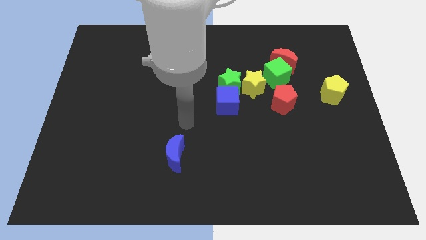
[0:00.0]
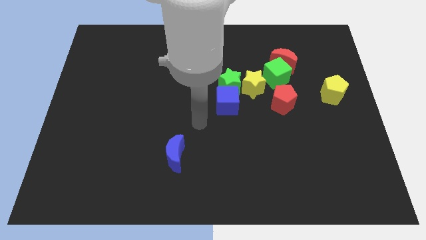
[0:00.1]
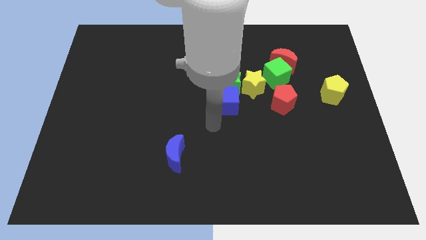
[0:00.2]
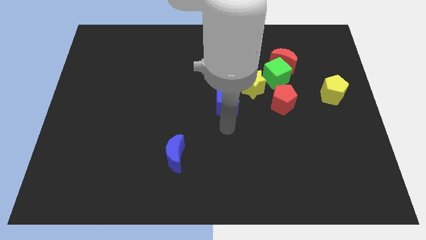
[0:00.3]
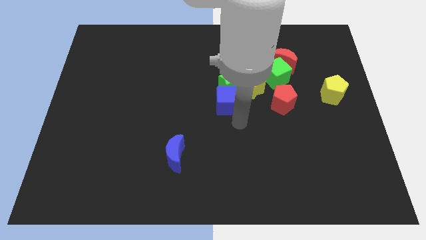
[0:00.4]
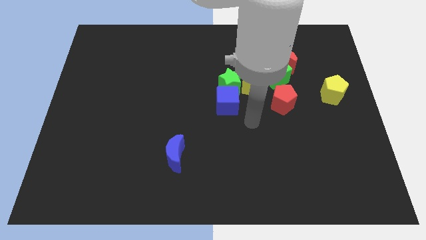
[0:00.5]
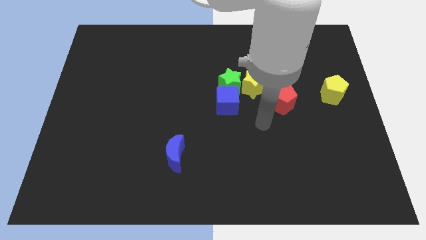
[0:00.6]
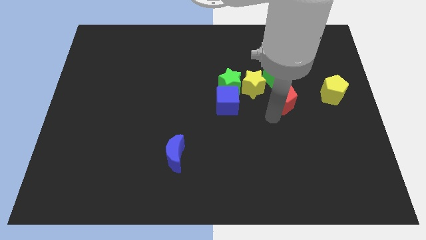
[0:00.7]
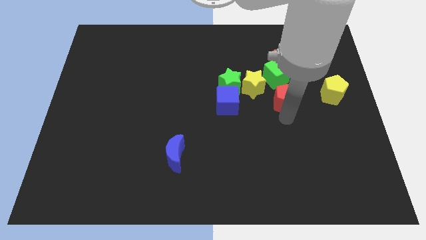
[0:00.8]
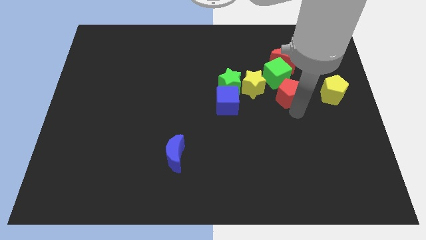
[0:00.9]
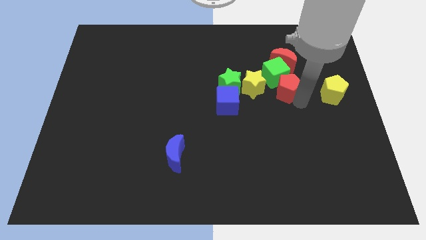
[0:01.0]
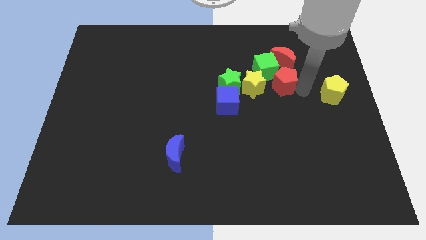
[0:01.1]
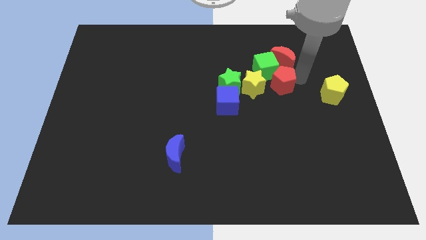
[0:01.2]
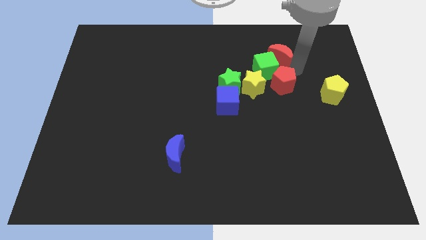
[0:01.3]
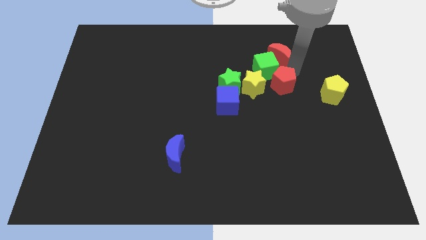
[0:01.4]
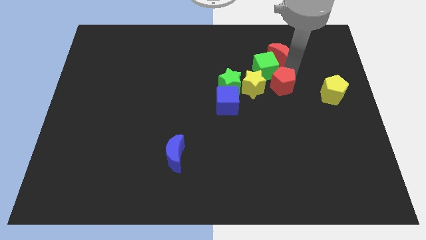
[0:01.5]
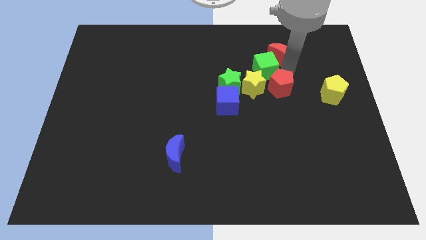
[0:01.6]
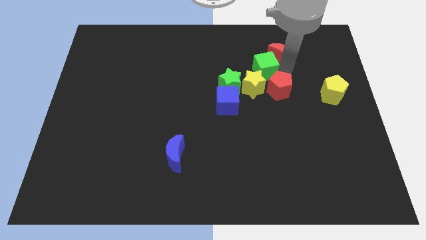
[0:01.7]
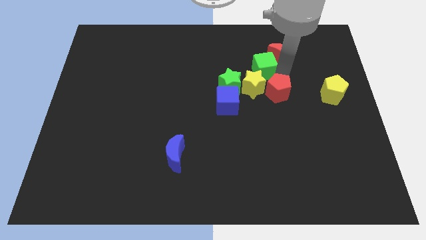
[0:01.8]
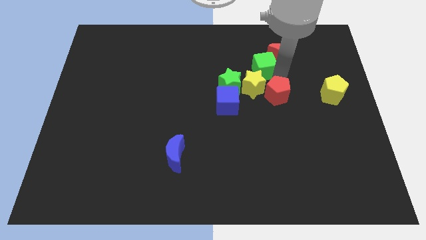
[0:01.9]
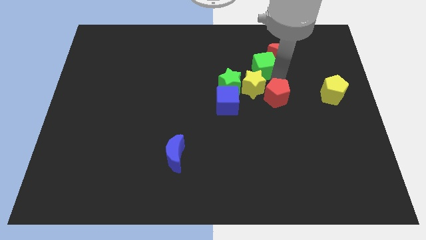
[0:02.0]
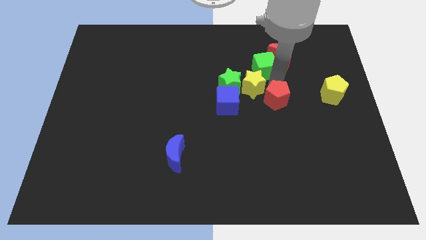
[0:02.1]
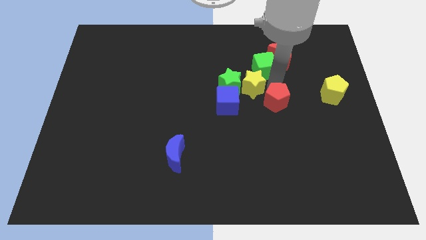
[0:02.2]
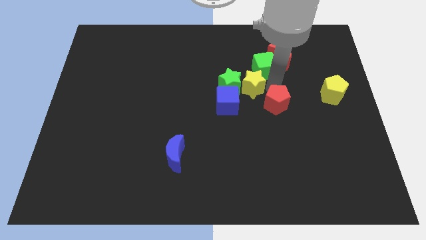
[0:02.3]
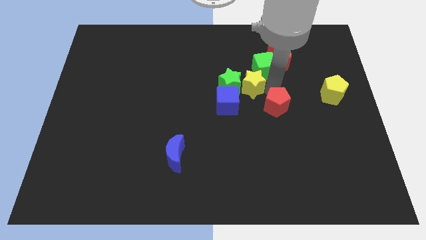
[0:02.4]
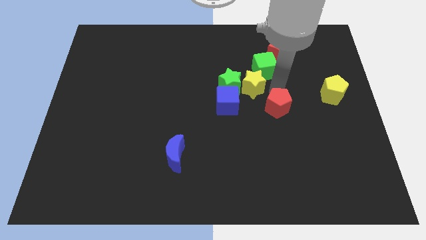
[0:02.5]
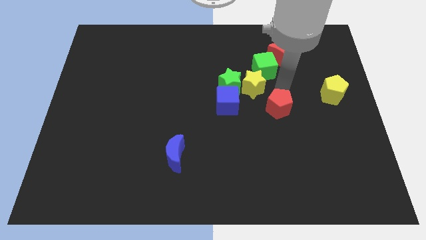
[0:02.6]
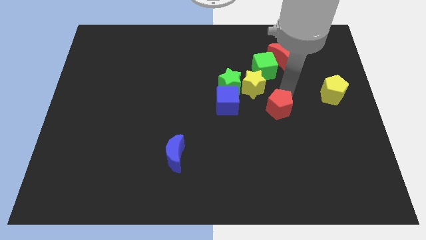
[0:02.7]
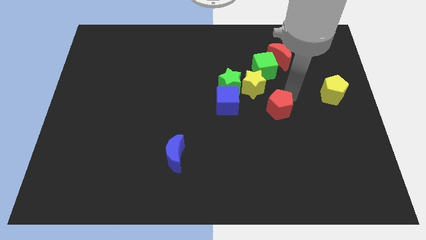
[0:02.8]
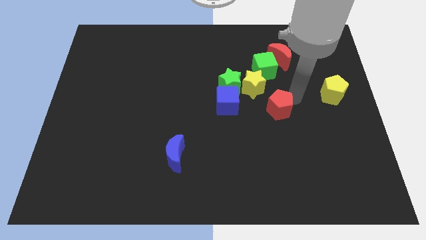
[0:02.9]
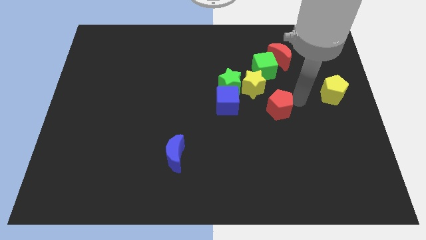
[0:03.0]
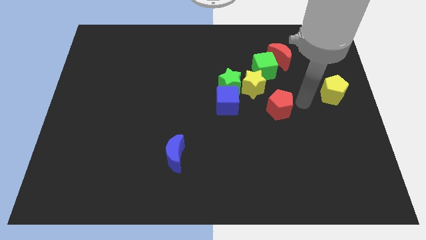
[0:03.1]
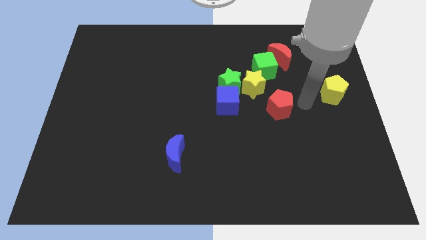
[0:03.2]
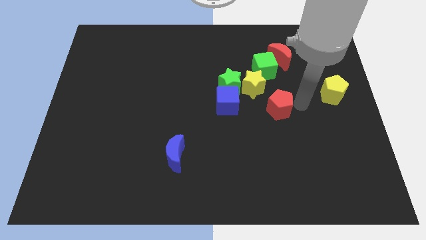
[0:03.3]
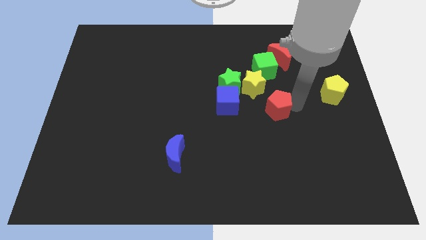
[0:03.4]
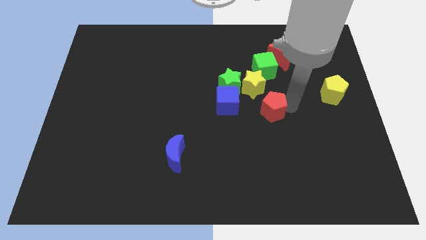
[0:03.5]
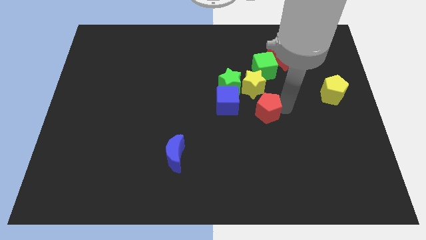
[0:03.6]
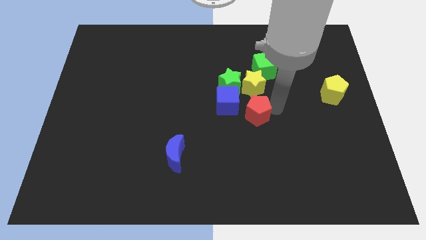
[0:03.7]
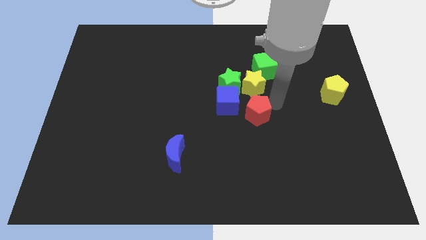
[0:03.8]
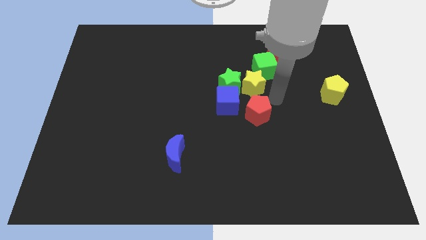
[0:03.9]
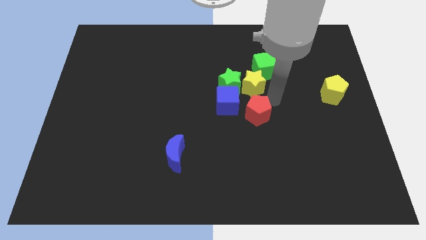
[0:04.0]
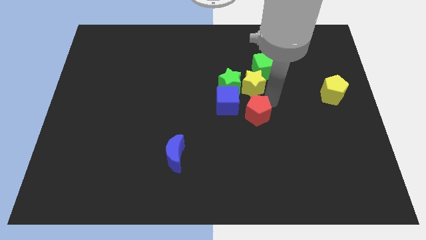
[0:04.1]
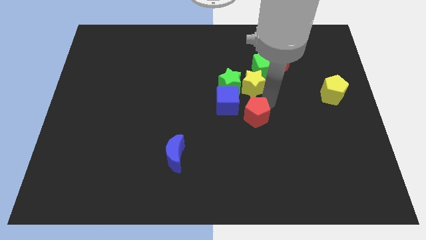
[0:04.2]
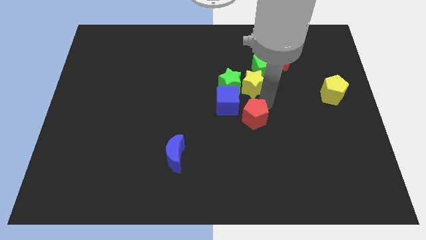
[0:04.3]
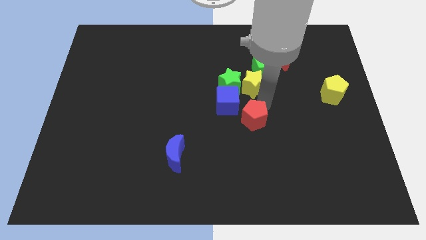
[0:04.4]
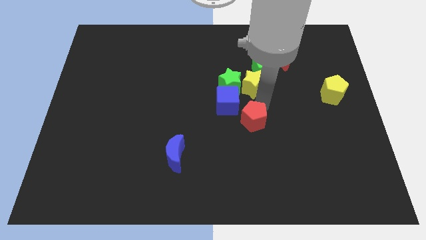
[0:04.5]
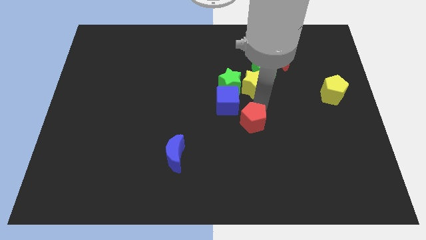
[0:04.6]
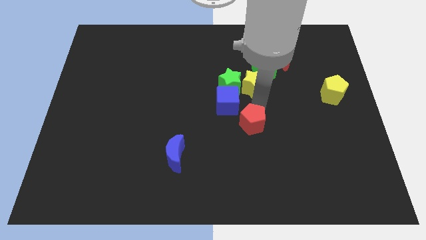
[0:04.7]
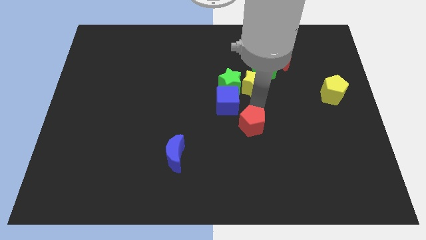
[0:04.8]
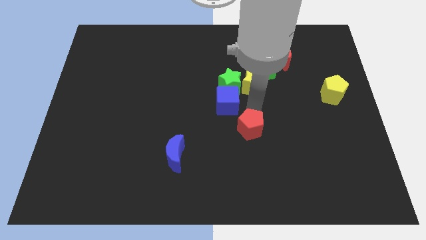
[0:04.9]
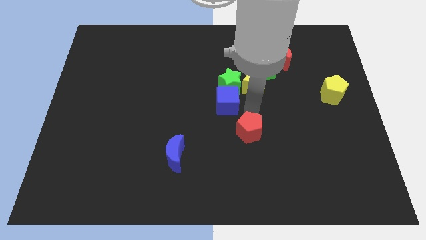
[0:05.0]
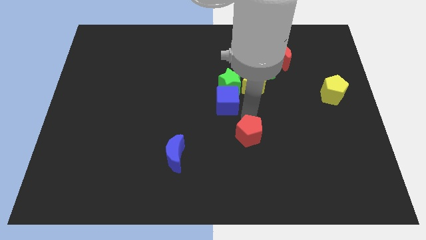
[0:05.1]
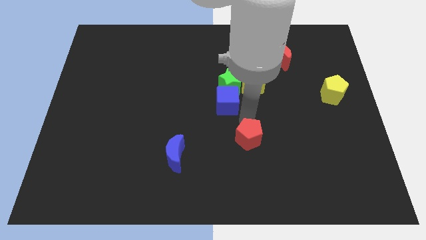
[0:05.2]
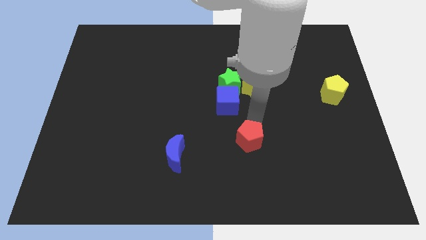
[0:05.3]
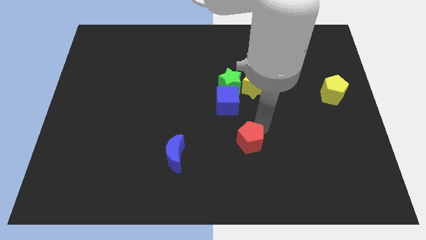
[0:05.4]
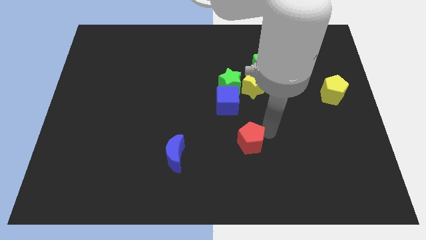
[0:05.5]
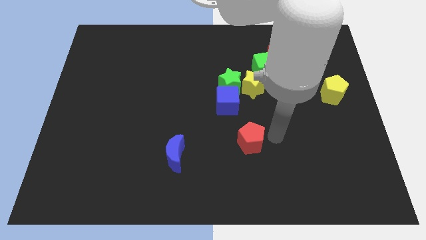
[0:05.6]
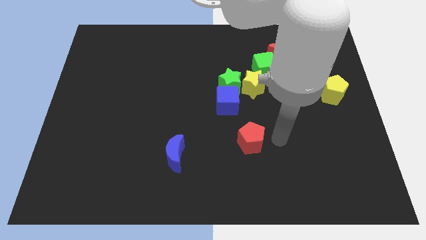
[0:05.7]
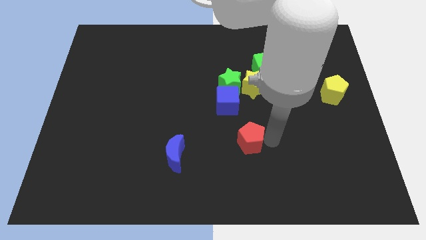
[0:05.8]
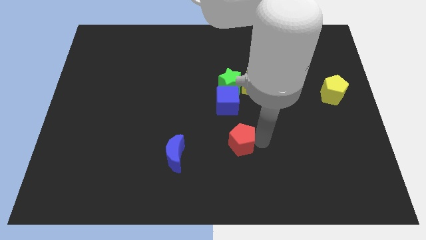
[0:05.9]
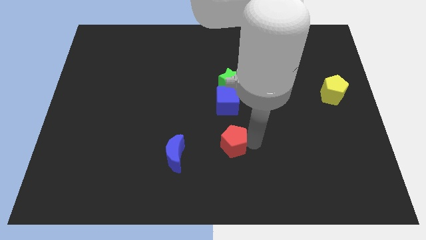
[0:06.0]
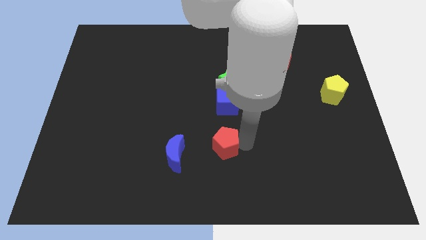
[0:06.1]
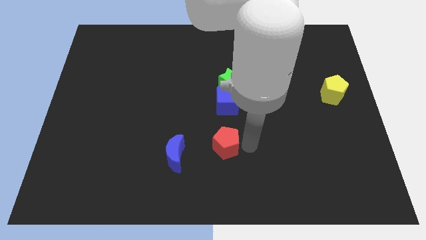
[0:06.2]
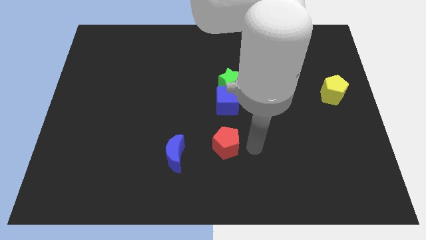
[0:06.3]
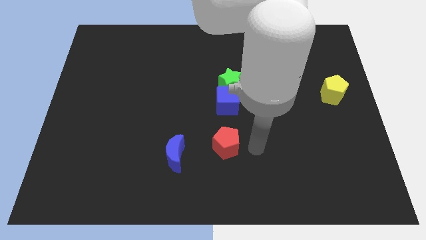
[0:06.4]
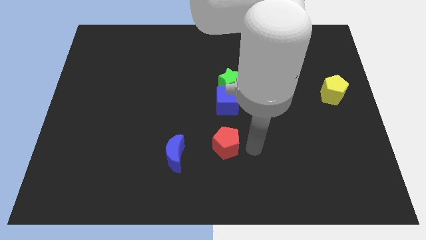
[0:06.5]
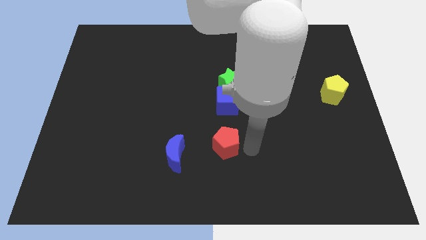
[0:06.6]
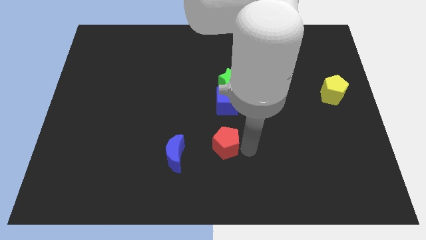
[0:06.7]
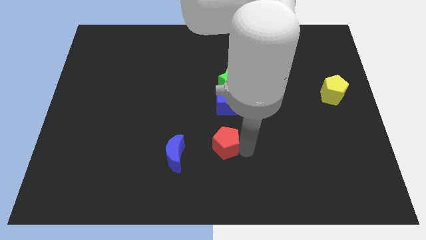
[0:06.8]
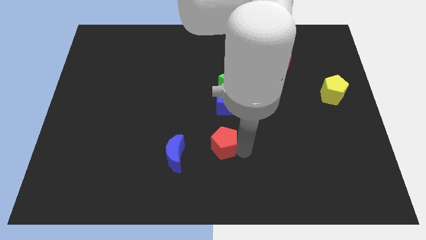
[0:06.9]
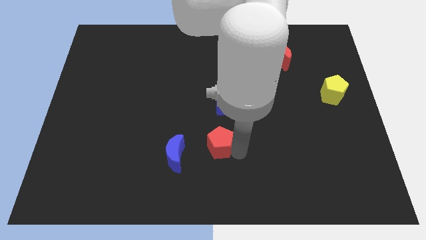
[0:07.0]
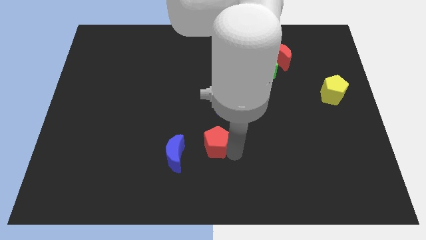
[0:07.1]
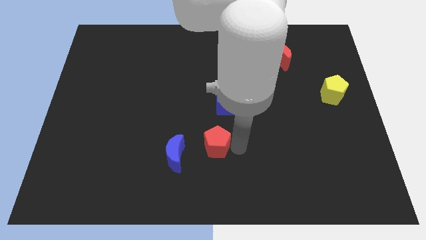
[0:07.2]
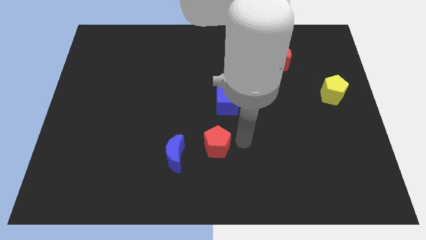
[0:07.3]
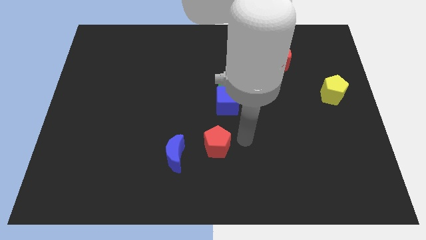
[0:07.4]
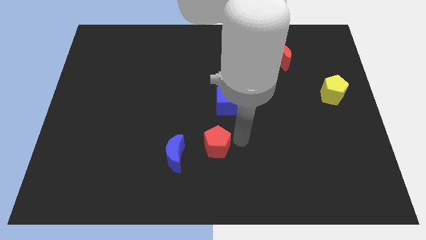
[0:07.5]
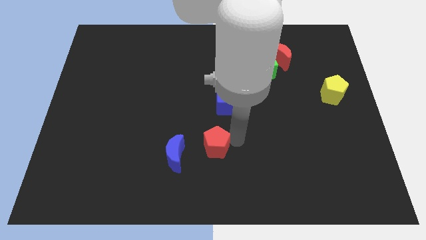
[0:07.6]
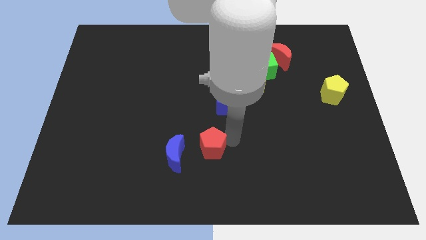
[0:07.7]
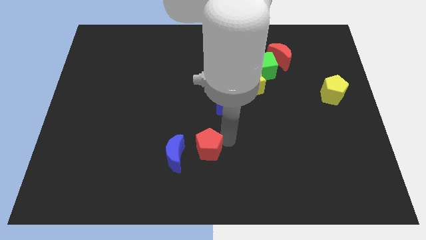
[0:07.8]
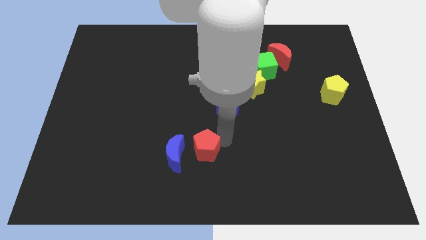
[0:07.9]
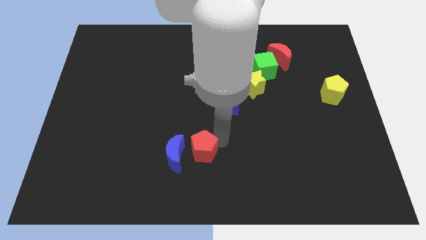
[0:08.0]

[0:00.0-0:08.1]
put the red pentagon close to the blue moon
